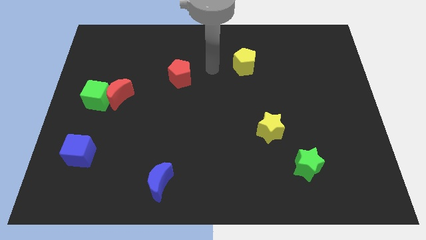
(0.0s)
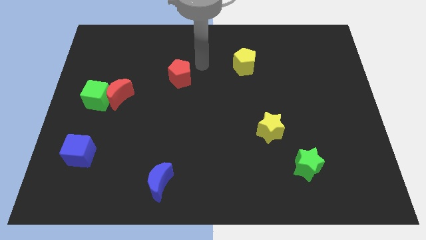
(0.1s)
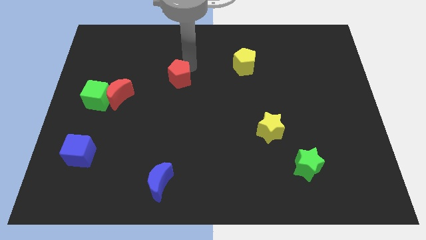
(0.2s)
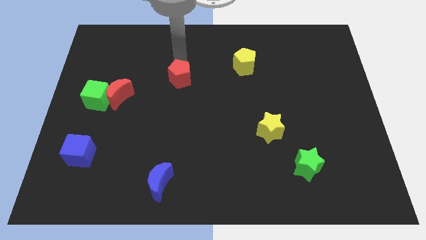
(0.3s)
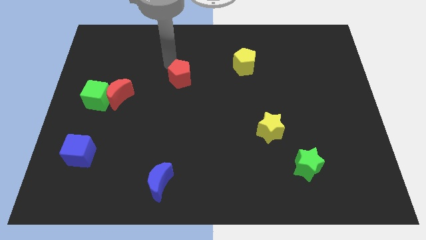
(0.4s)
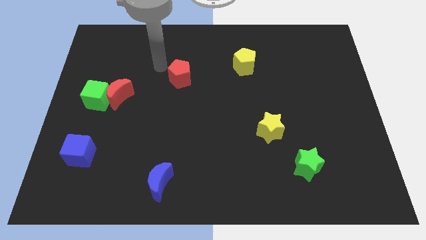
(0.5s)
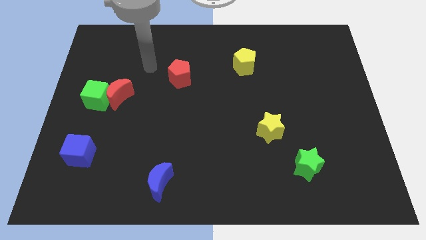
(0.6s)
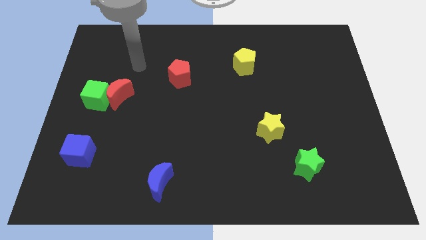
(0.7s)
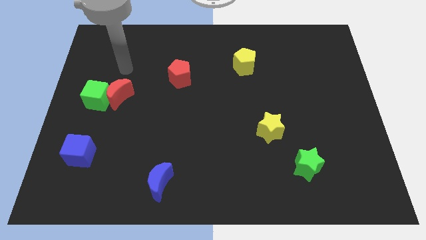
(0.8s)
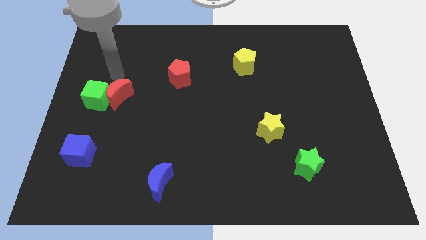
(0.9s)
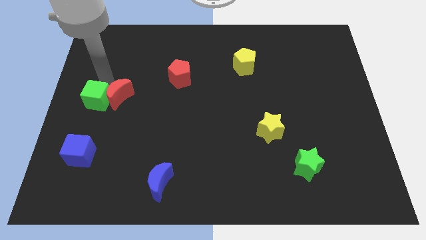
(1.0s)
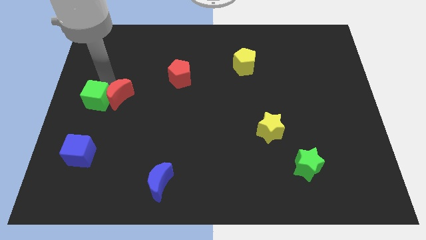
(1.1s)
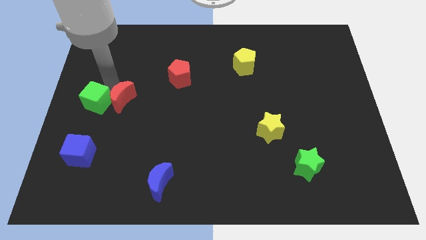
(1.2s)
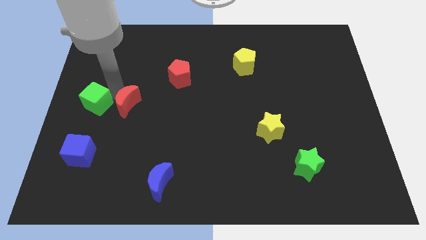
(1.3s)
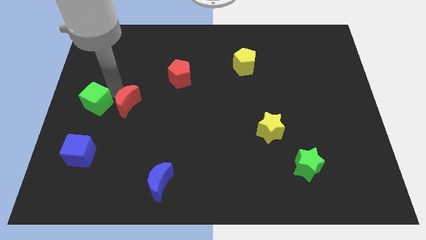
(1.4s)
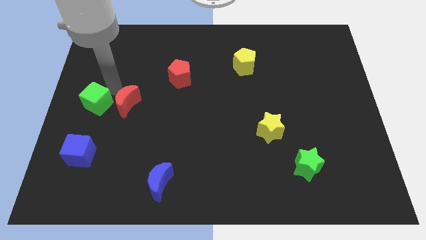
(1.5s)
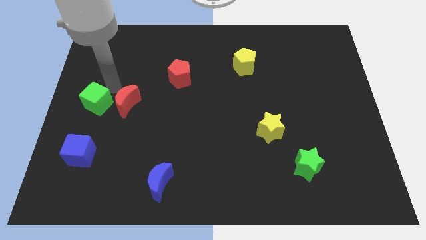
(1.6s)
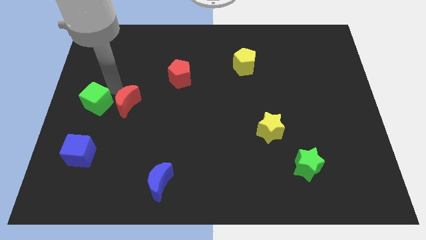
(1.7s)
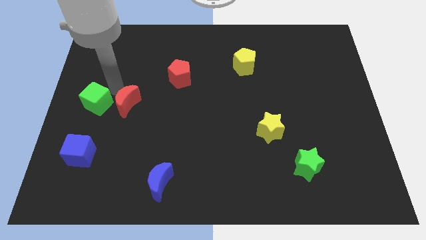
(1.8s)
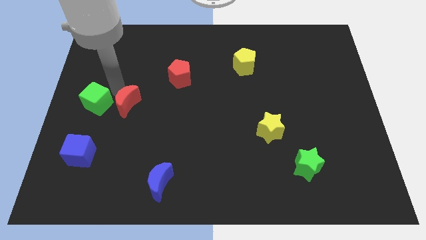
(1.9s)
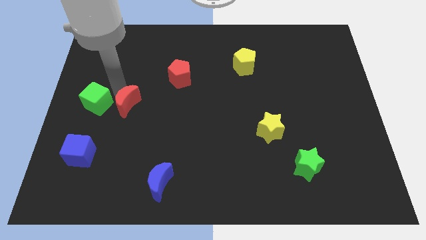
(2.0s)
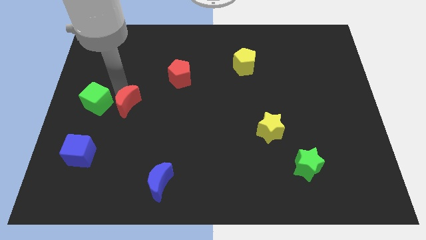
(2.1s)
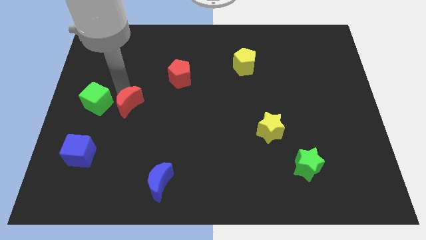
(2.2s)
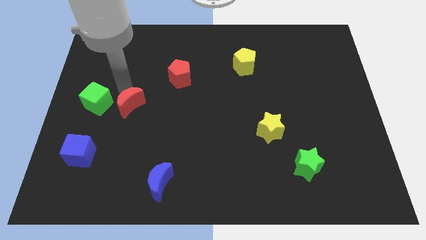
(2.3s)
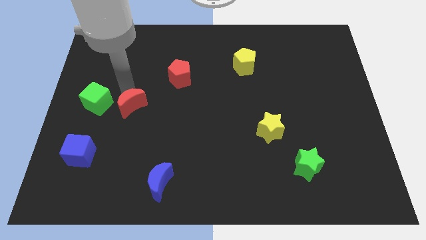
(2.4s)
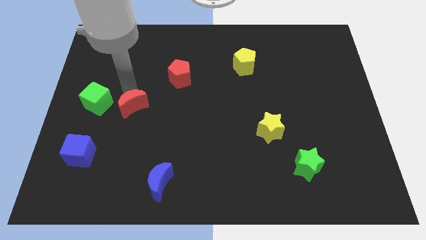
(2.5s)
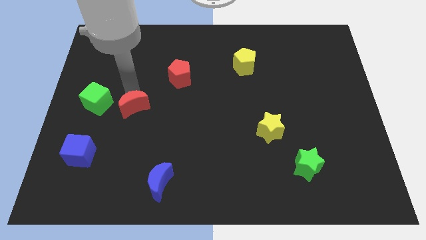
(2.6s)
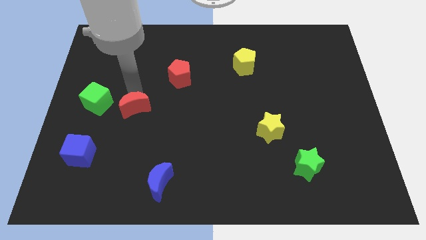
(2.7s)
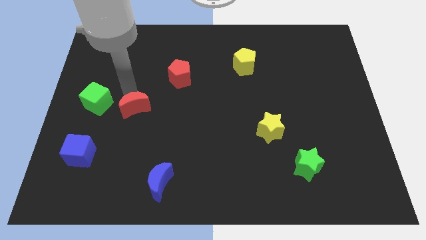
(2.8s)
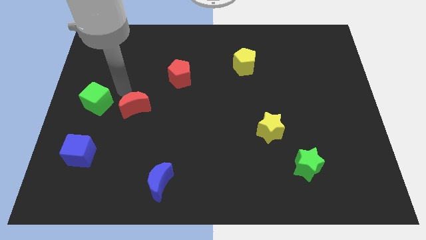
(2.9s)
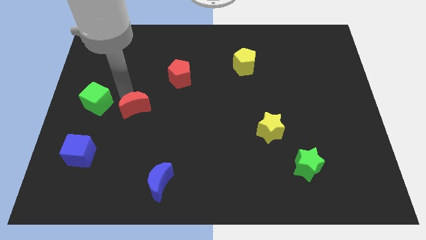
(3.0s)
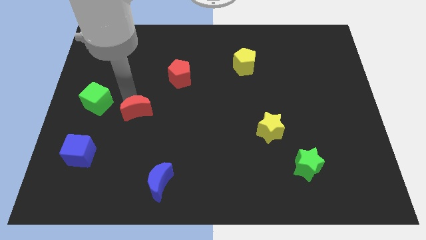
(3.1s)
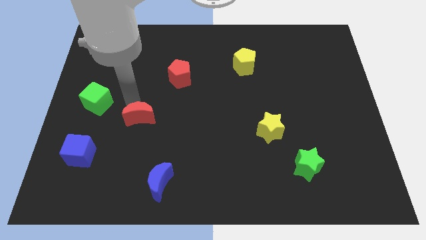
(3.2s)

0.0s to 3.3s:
slightly slide the red moon diagonally down and right

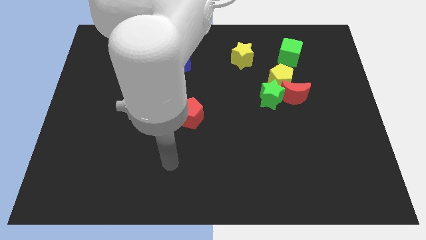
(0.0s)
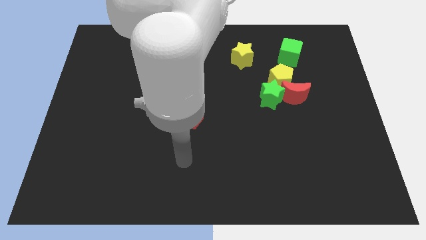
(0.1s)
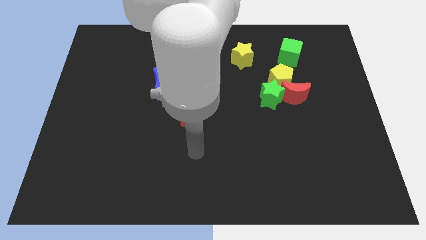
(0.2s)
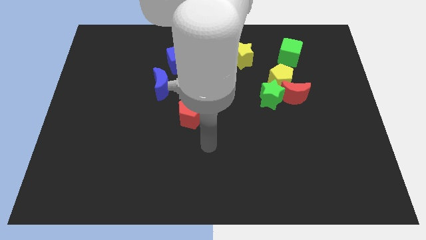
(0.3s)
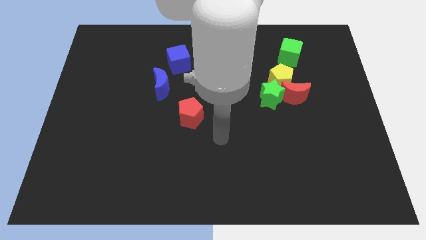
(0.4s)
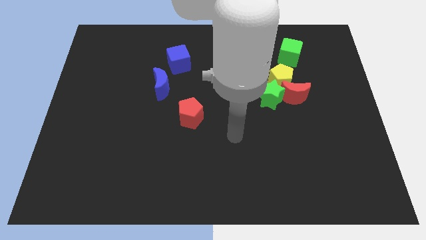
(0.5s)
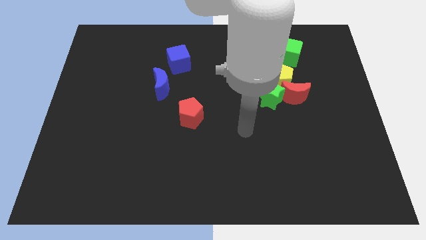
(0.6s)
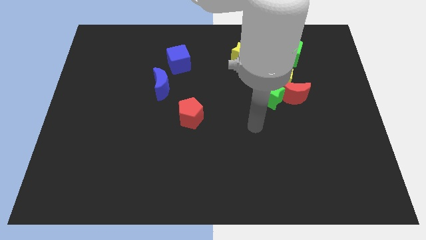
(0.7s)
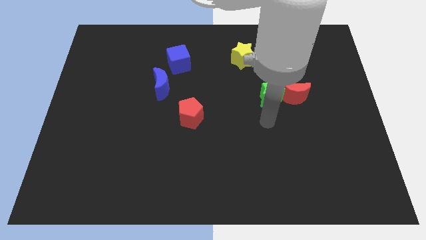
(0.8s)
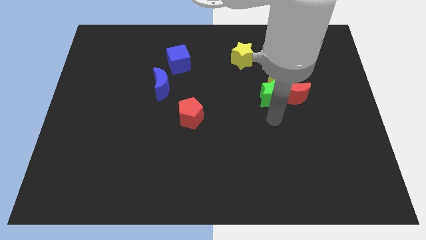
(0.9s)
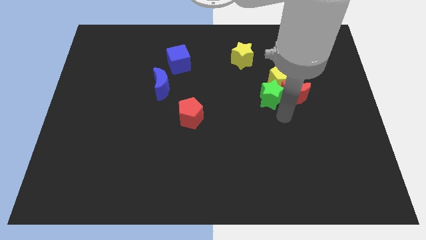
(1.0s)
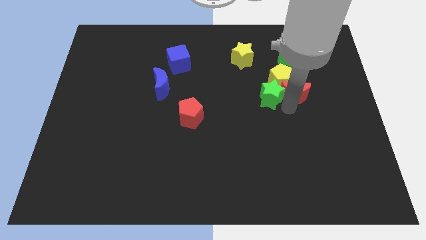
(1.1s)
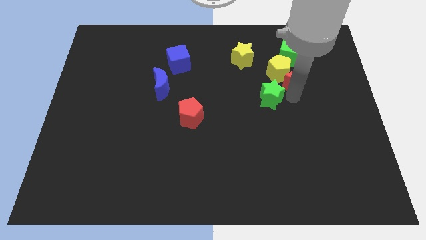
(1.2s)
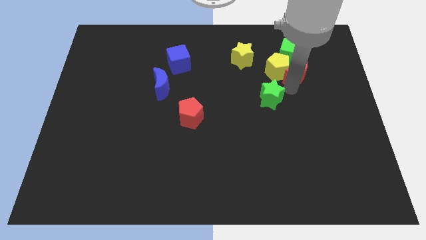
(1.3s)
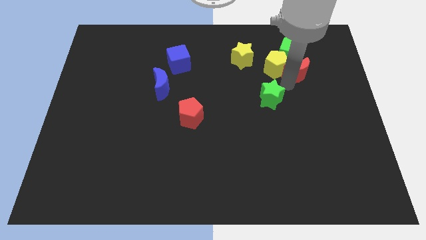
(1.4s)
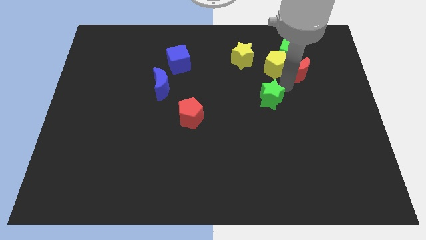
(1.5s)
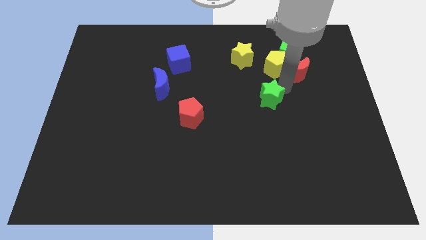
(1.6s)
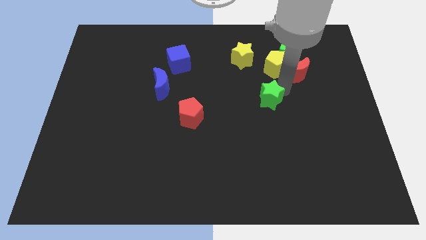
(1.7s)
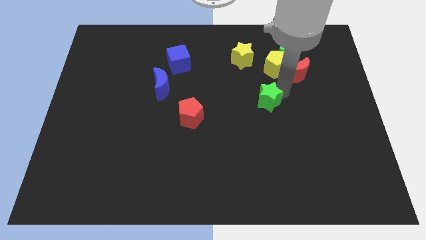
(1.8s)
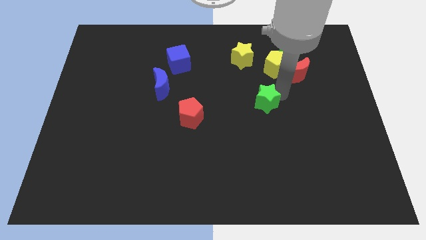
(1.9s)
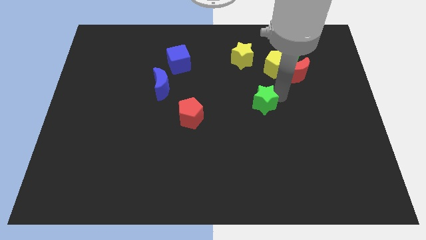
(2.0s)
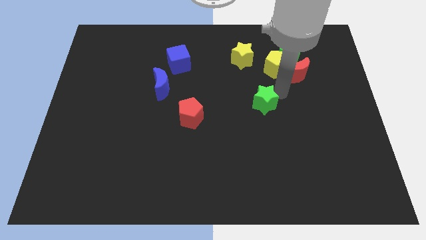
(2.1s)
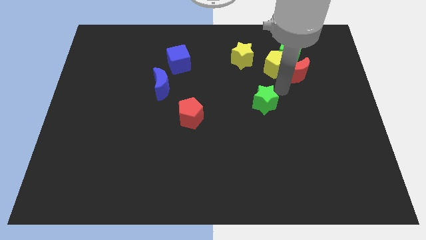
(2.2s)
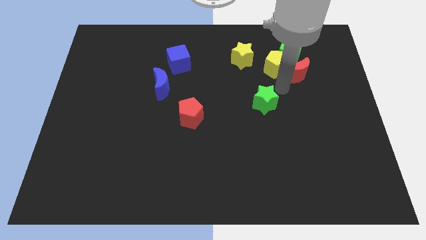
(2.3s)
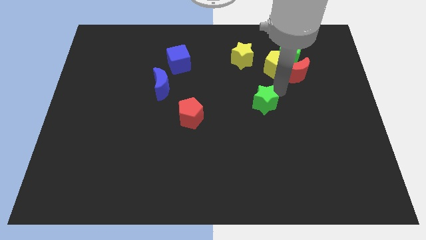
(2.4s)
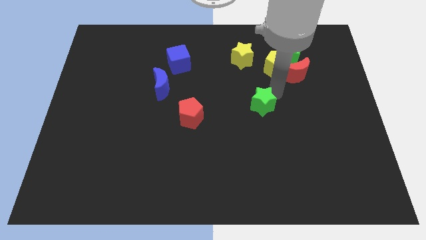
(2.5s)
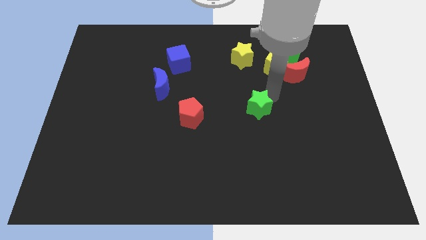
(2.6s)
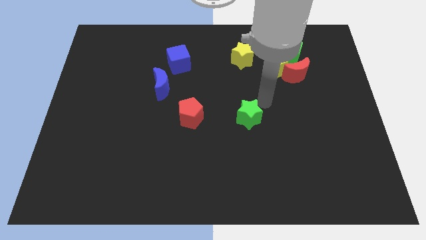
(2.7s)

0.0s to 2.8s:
slightly slide the green star downwards and to the left diagonally

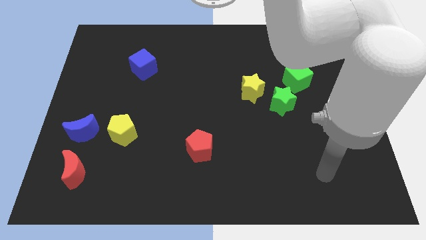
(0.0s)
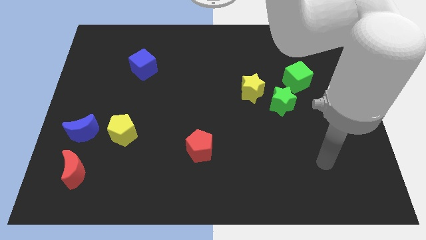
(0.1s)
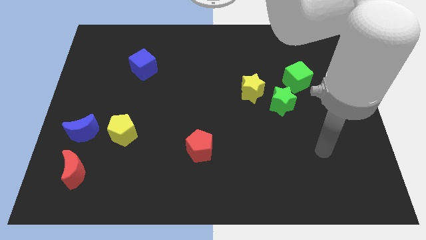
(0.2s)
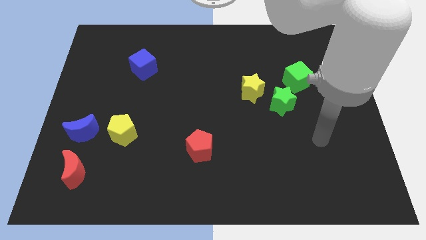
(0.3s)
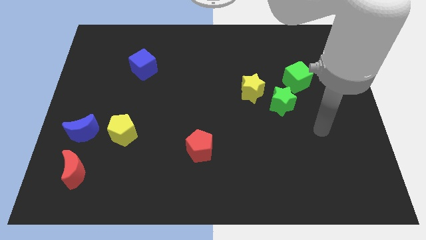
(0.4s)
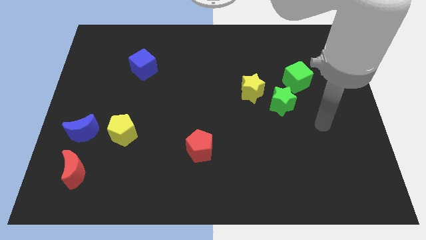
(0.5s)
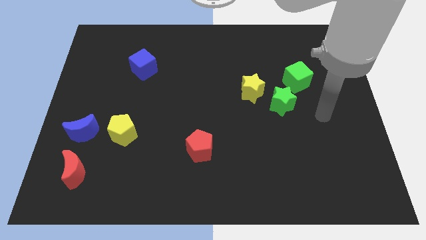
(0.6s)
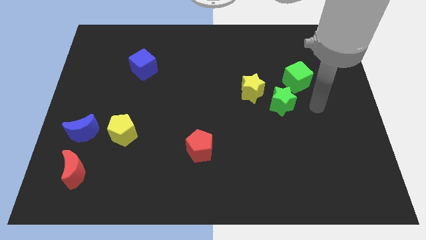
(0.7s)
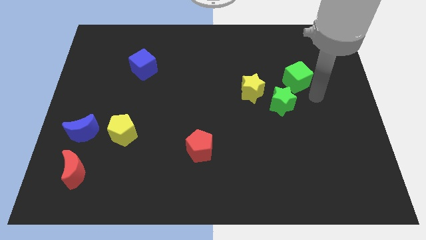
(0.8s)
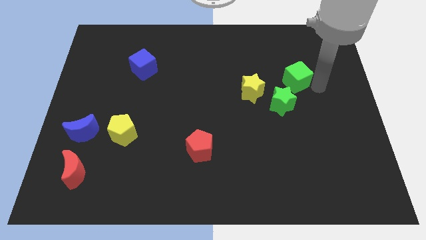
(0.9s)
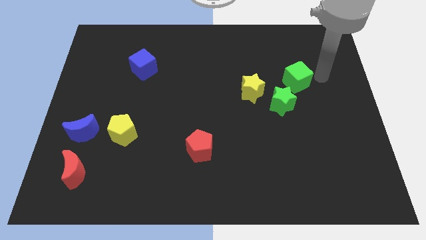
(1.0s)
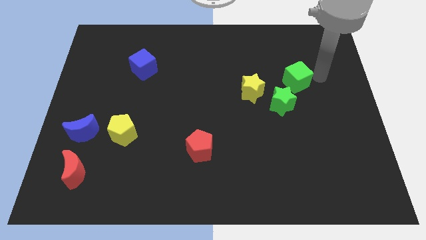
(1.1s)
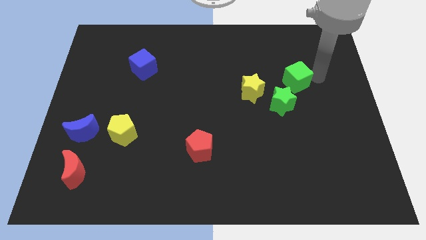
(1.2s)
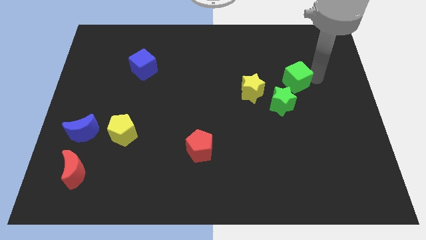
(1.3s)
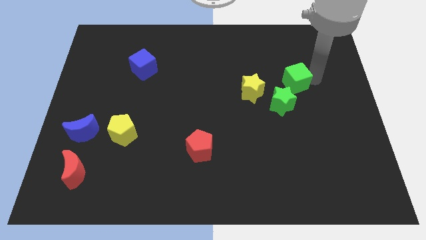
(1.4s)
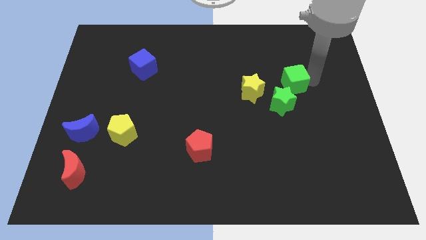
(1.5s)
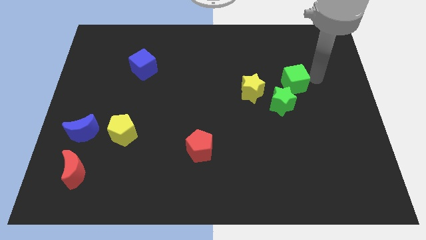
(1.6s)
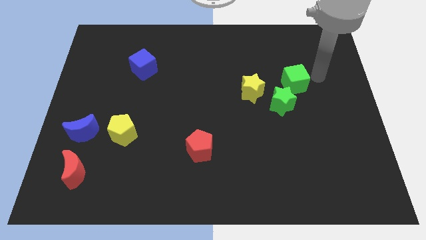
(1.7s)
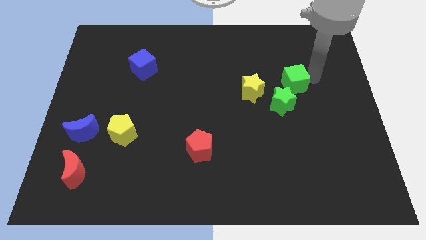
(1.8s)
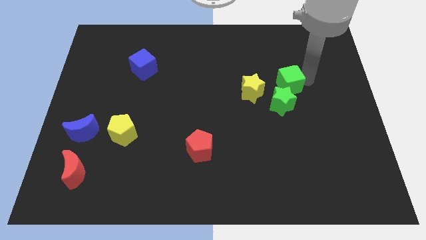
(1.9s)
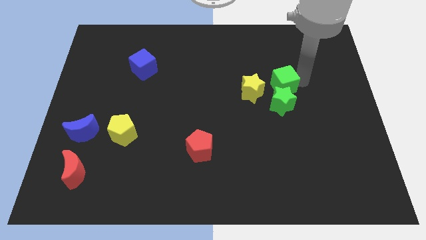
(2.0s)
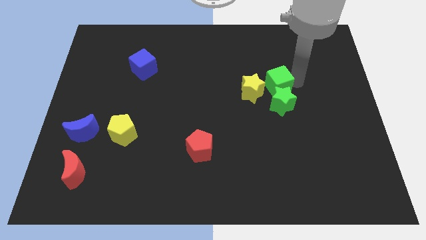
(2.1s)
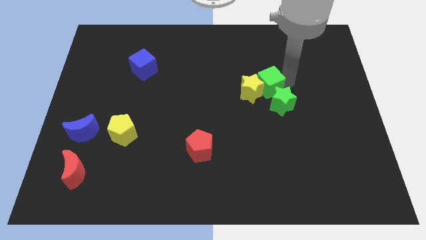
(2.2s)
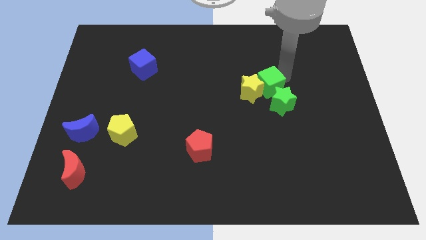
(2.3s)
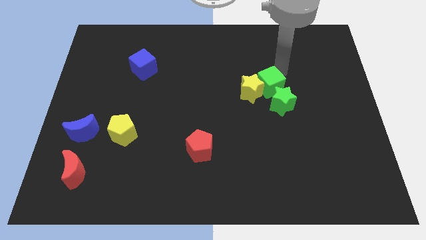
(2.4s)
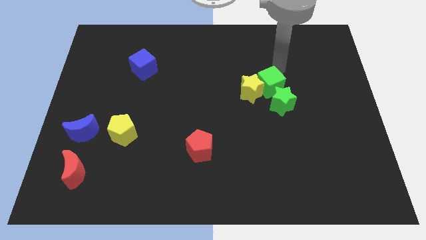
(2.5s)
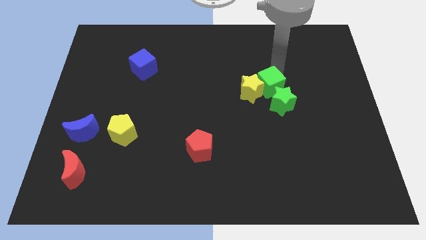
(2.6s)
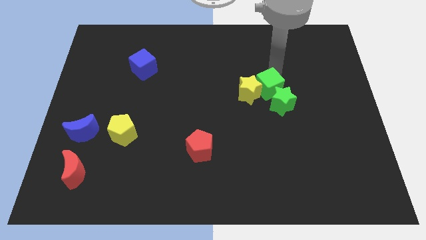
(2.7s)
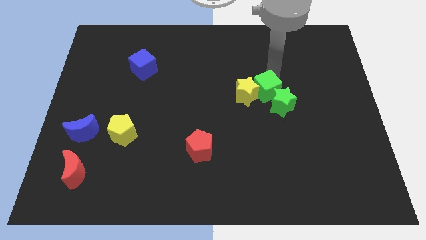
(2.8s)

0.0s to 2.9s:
move the green cube down and left diagonally a bit
